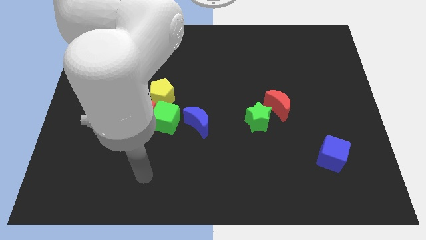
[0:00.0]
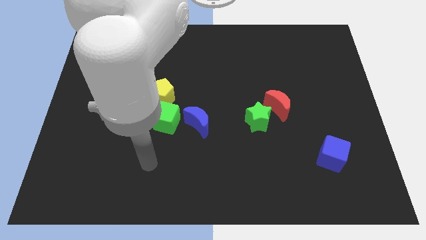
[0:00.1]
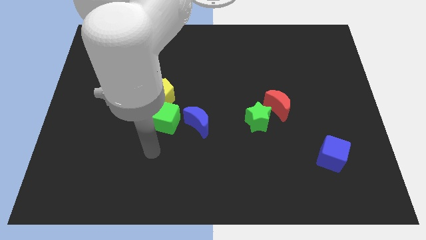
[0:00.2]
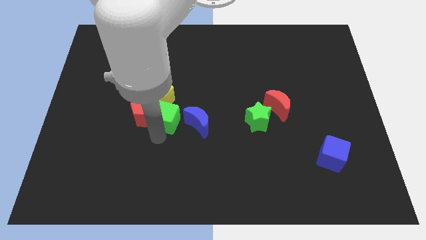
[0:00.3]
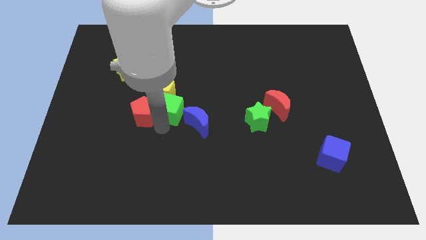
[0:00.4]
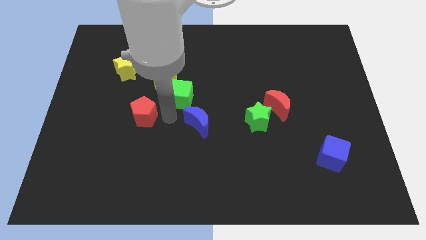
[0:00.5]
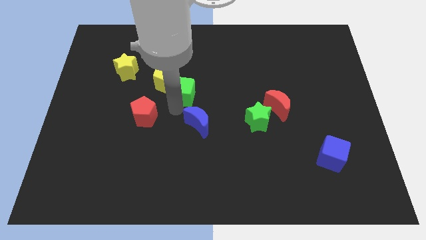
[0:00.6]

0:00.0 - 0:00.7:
move the red pentagon away from the green cube and yellow pentagon

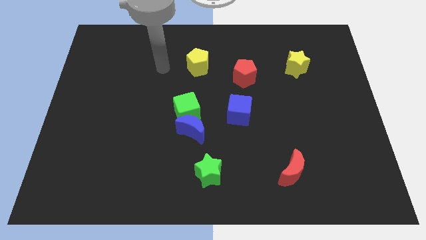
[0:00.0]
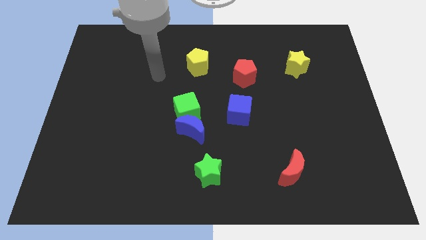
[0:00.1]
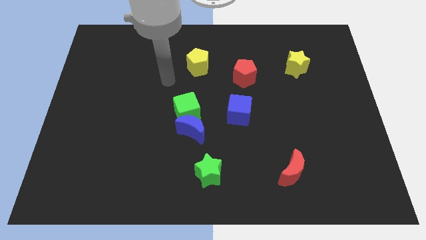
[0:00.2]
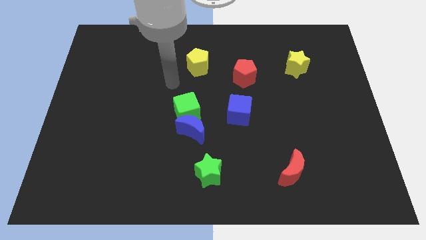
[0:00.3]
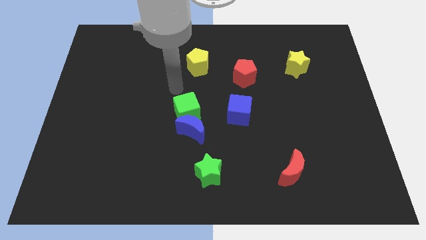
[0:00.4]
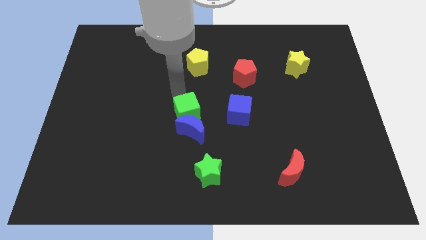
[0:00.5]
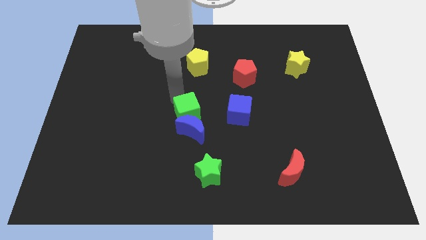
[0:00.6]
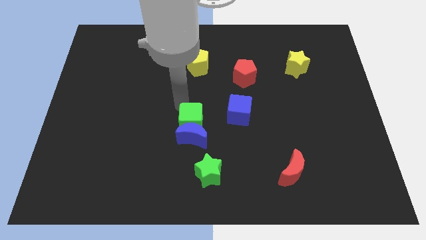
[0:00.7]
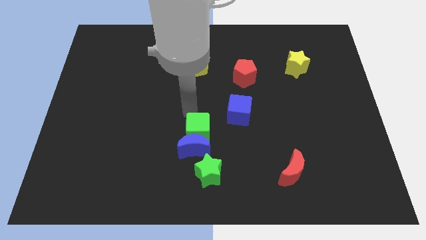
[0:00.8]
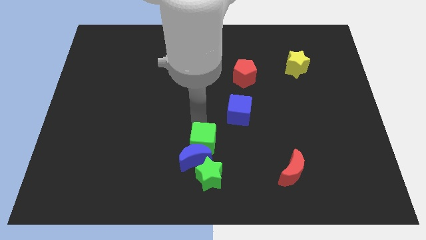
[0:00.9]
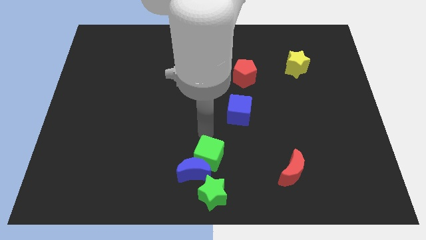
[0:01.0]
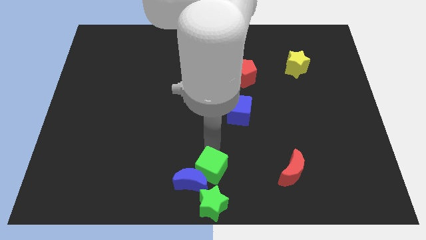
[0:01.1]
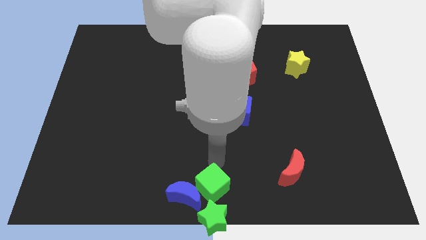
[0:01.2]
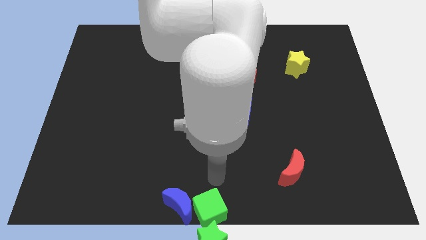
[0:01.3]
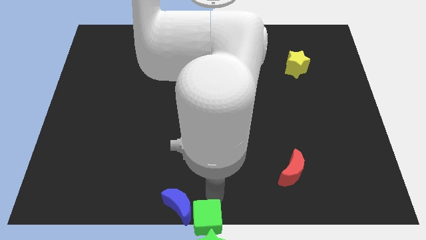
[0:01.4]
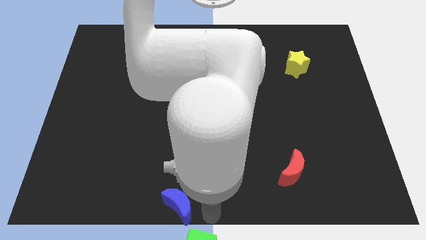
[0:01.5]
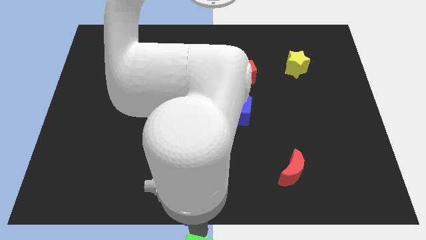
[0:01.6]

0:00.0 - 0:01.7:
move the blue moon away from the green cube

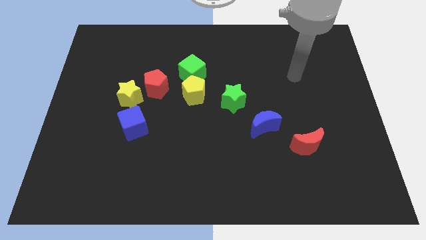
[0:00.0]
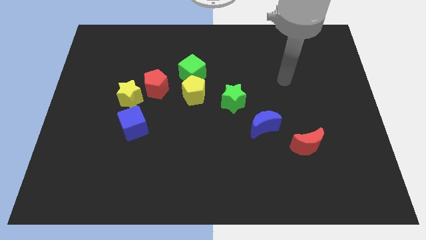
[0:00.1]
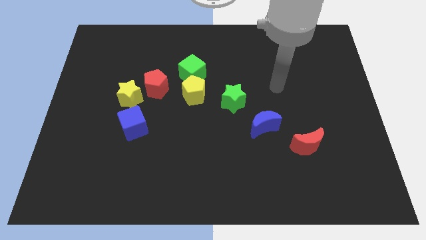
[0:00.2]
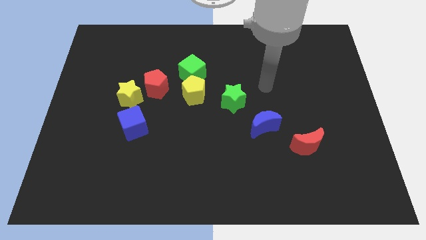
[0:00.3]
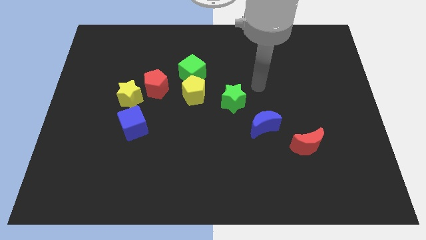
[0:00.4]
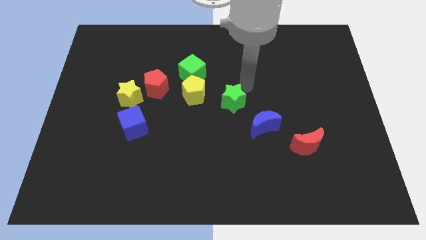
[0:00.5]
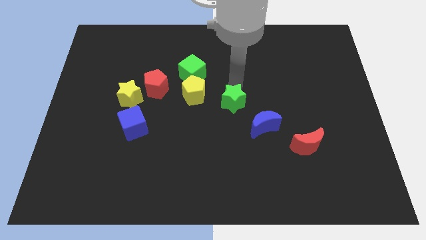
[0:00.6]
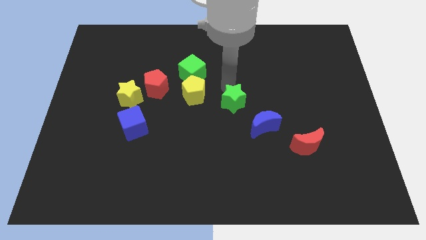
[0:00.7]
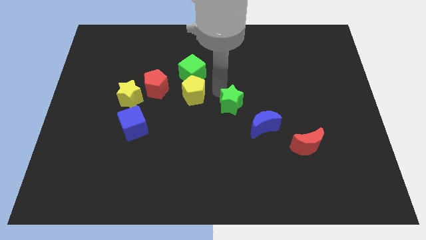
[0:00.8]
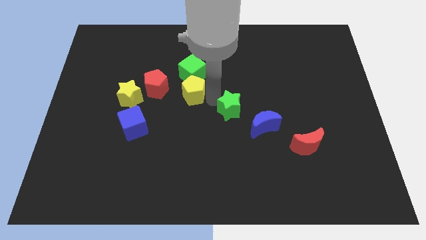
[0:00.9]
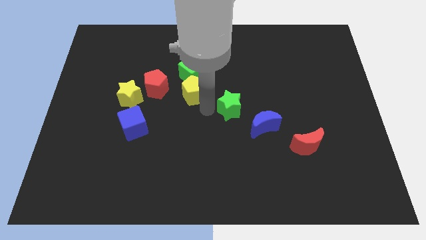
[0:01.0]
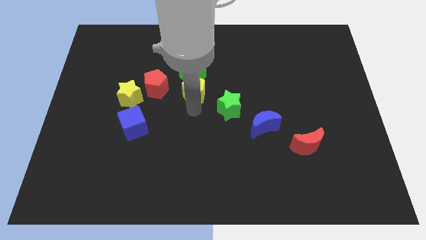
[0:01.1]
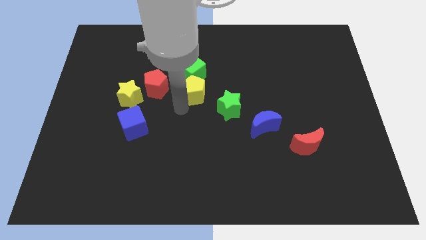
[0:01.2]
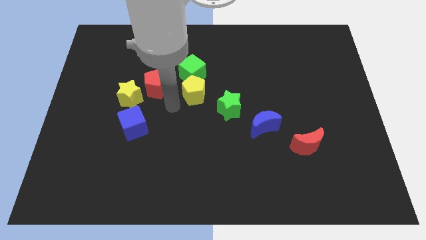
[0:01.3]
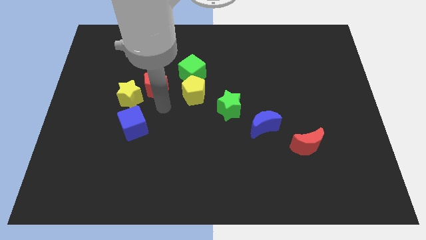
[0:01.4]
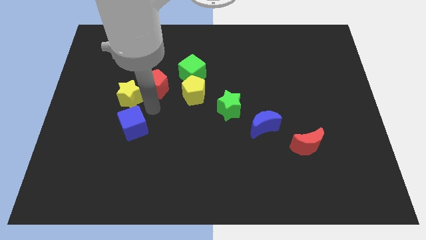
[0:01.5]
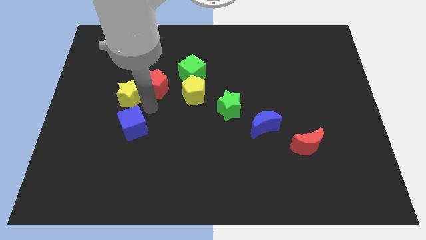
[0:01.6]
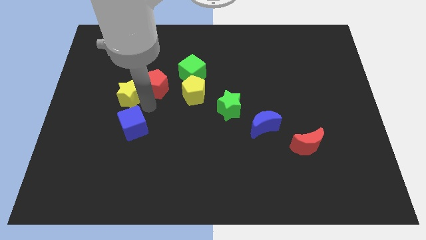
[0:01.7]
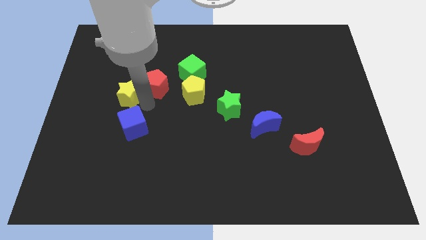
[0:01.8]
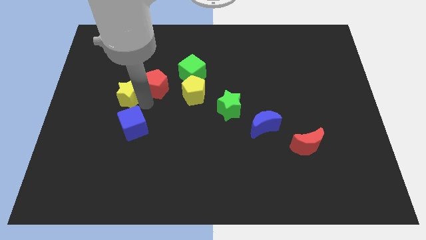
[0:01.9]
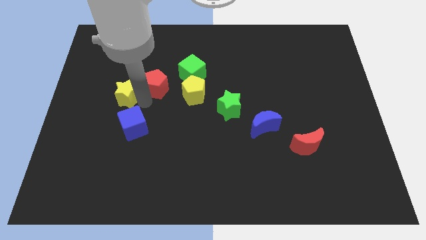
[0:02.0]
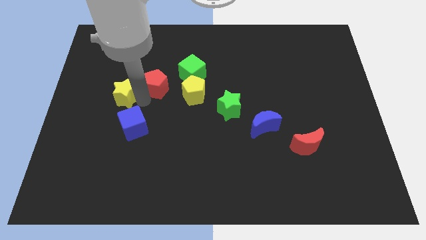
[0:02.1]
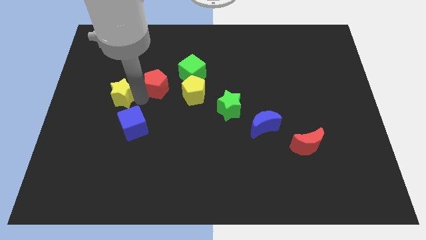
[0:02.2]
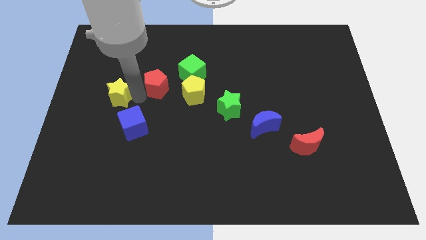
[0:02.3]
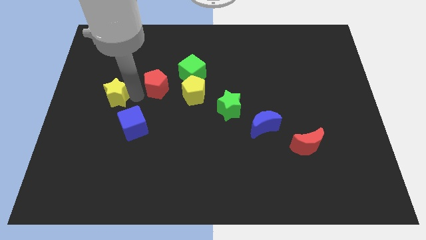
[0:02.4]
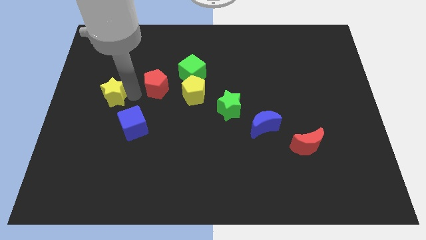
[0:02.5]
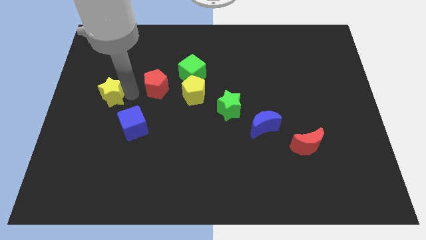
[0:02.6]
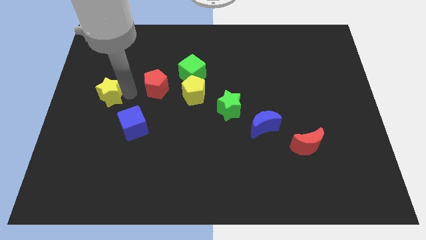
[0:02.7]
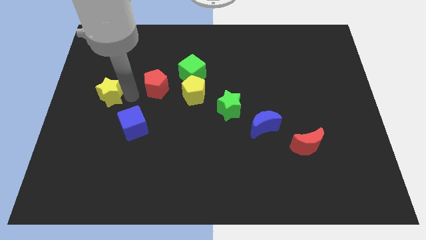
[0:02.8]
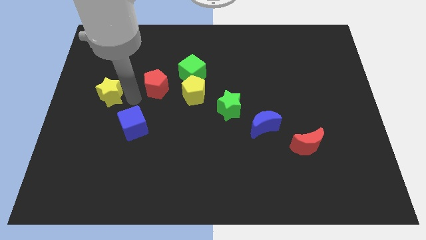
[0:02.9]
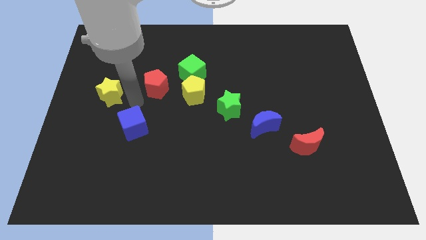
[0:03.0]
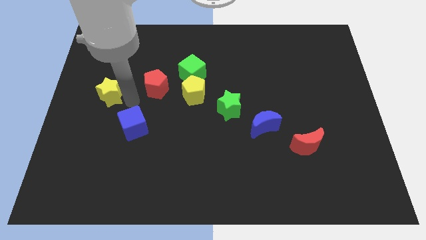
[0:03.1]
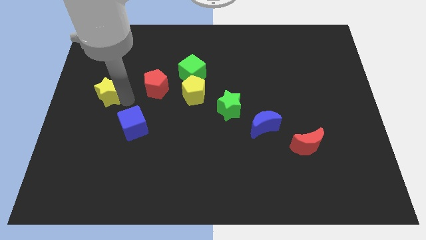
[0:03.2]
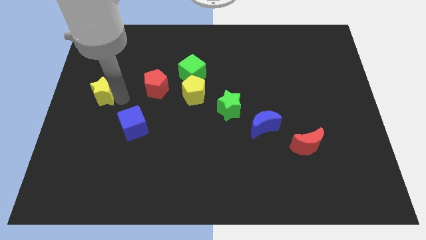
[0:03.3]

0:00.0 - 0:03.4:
move the yellow star away from the red pentagon and blue cube

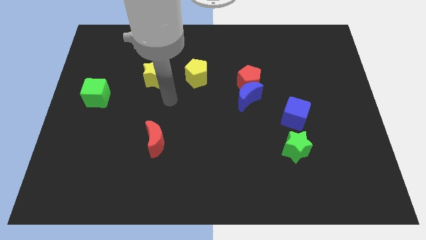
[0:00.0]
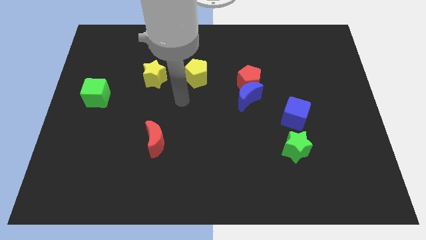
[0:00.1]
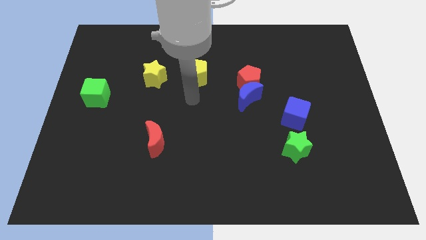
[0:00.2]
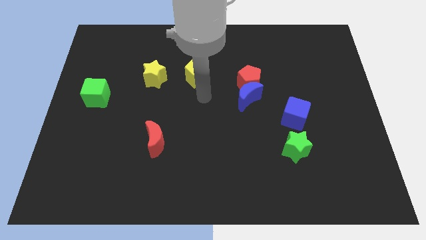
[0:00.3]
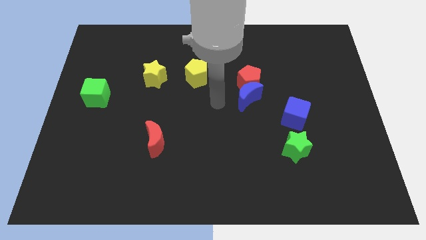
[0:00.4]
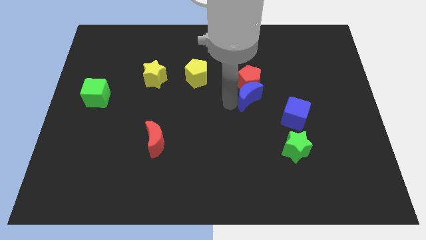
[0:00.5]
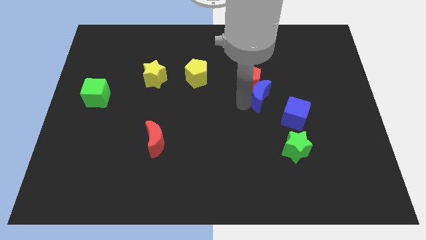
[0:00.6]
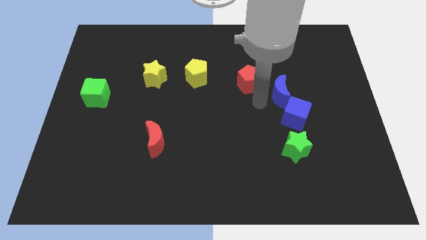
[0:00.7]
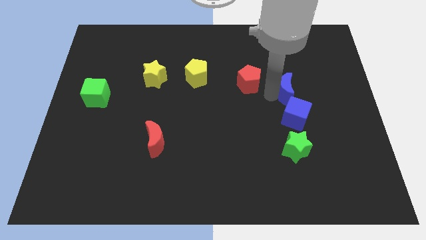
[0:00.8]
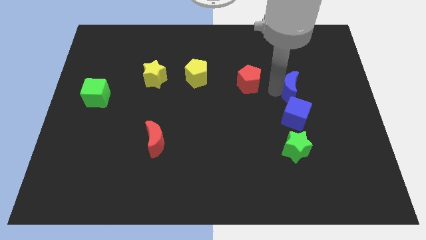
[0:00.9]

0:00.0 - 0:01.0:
pull the red pentagon apart from the blue moon

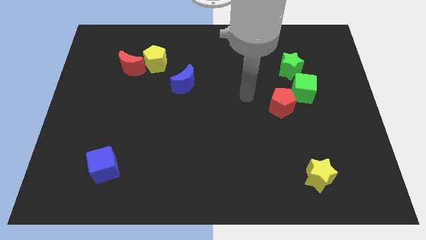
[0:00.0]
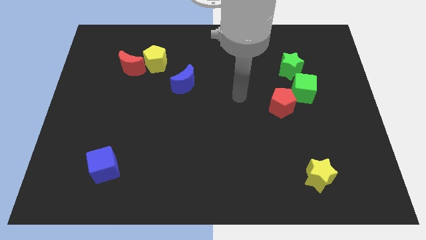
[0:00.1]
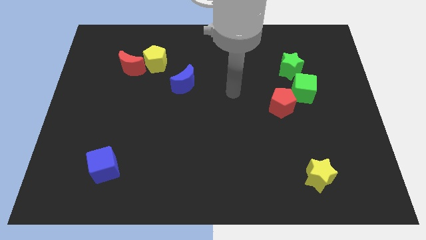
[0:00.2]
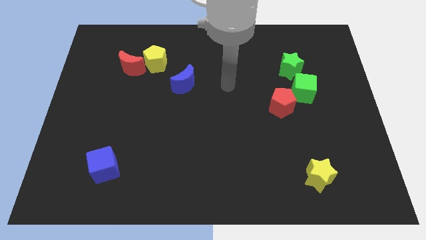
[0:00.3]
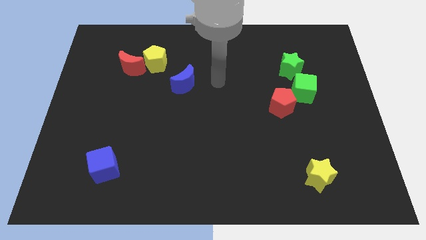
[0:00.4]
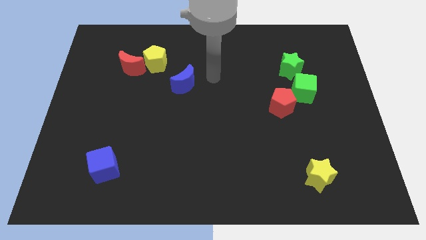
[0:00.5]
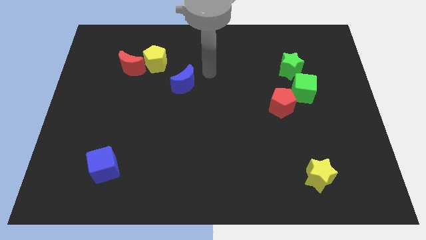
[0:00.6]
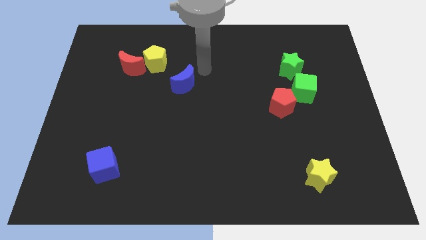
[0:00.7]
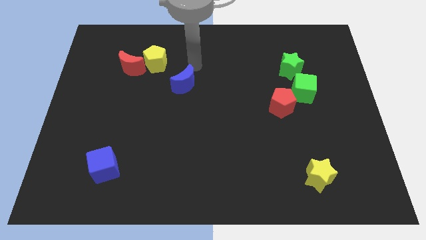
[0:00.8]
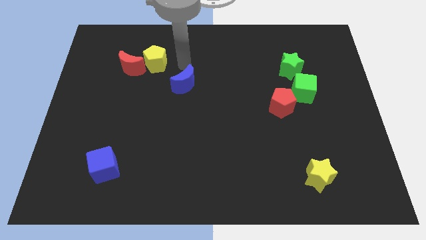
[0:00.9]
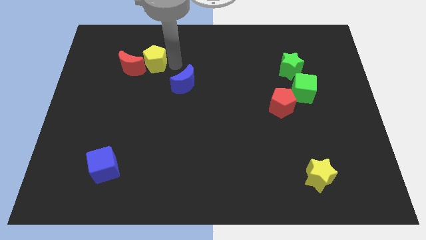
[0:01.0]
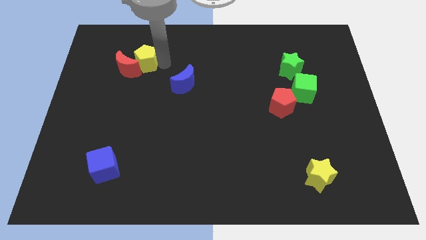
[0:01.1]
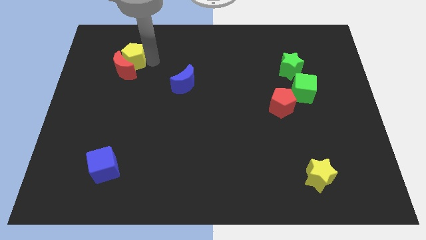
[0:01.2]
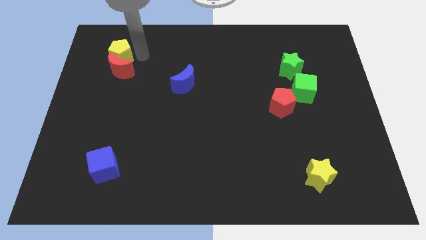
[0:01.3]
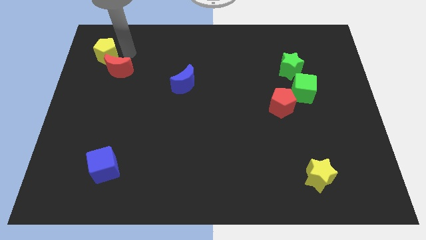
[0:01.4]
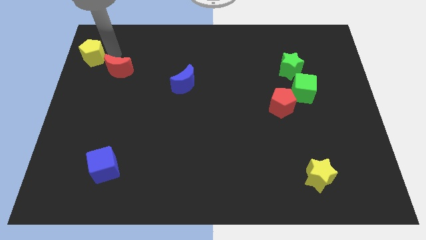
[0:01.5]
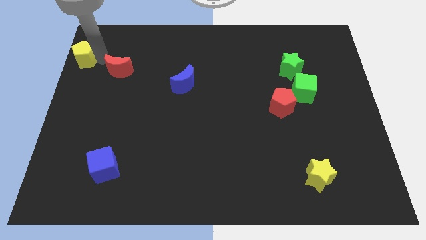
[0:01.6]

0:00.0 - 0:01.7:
move the red moon away from the yellow pentagon

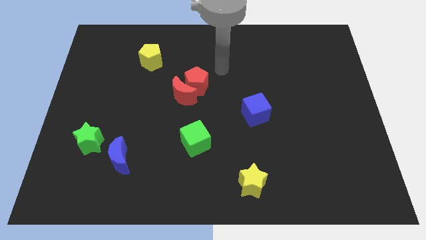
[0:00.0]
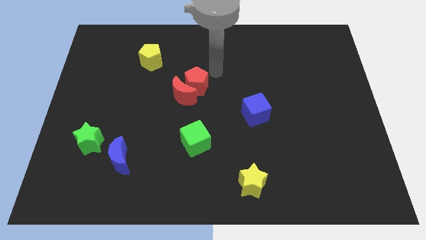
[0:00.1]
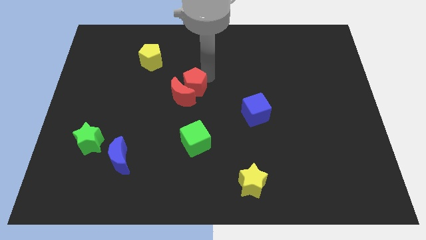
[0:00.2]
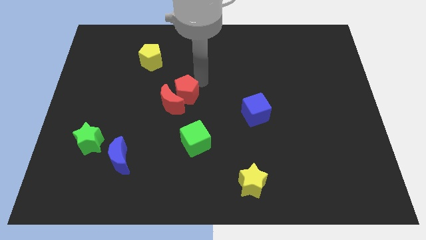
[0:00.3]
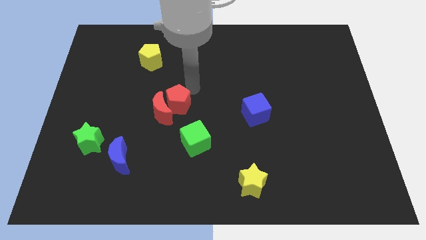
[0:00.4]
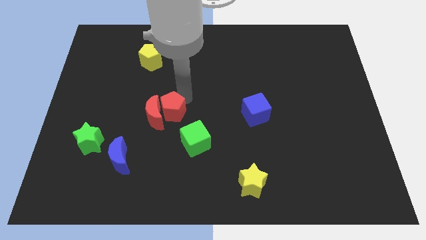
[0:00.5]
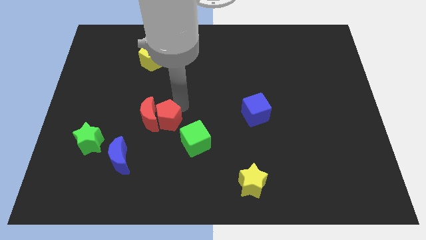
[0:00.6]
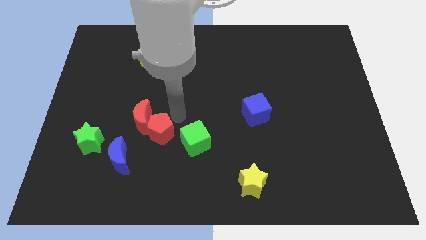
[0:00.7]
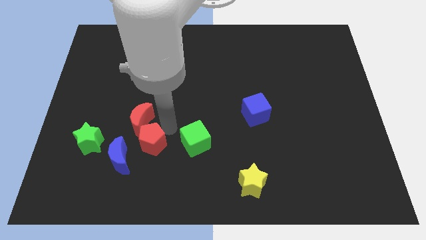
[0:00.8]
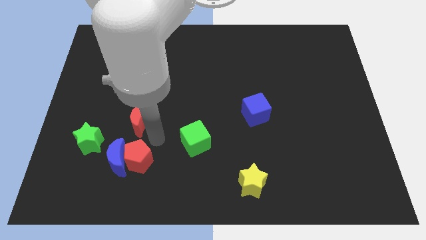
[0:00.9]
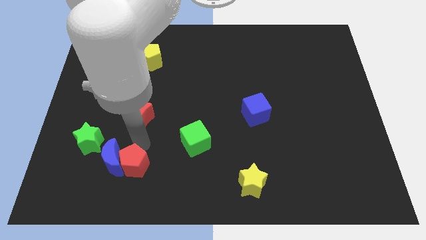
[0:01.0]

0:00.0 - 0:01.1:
move the red moon away from the red pentagon
